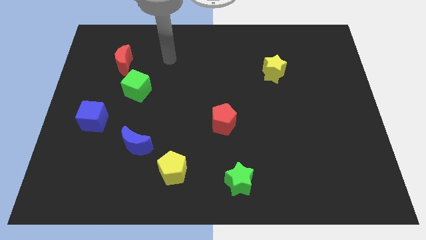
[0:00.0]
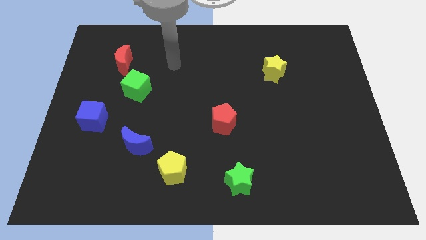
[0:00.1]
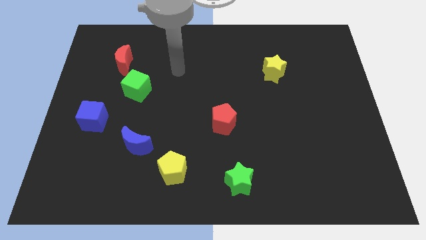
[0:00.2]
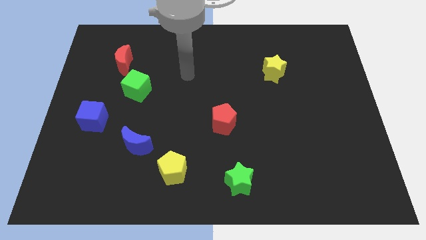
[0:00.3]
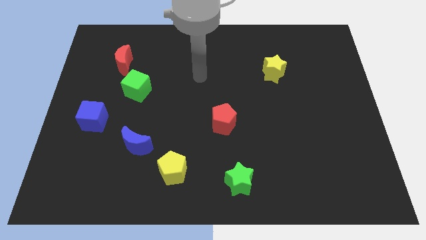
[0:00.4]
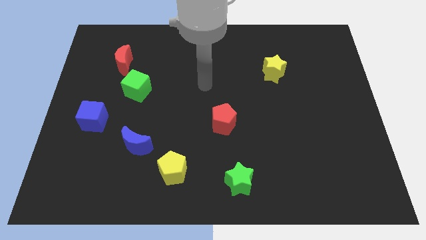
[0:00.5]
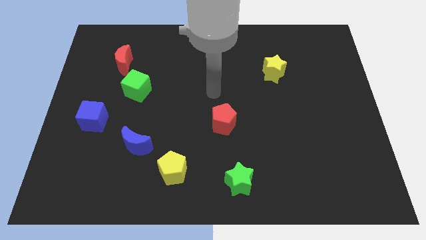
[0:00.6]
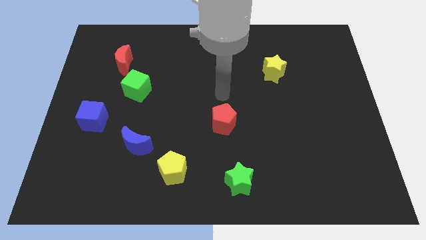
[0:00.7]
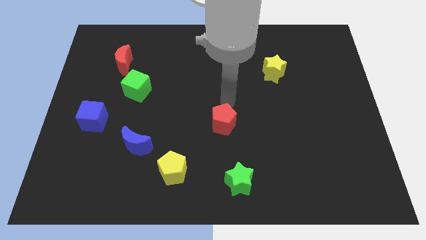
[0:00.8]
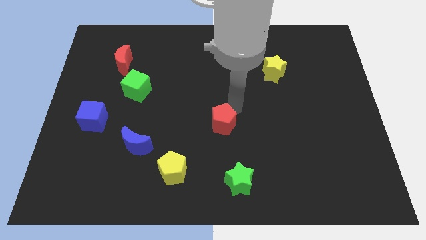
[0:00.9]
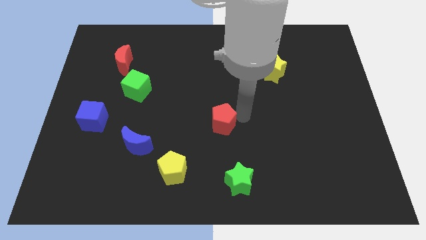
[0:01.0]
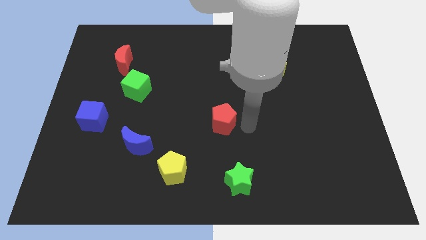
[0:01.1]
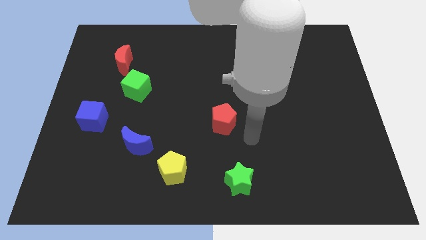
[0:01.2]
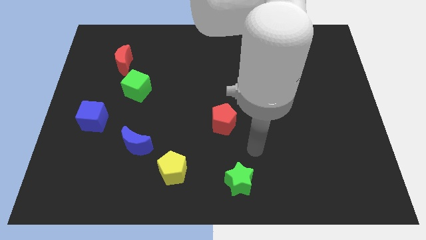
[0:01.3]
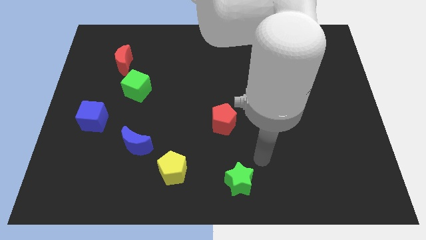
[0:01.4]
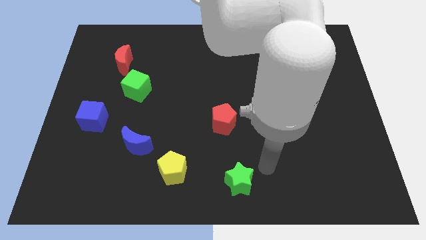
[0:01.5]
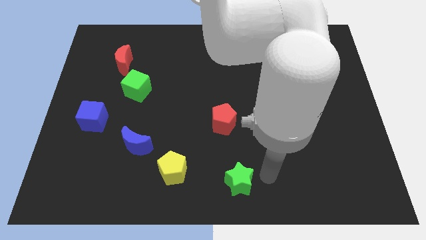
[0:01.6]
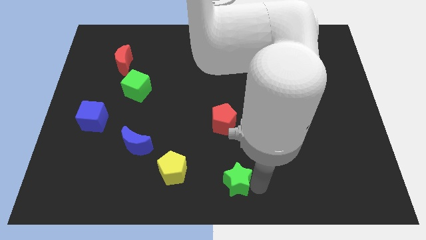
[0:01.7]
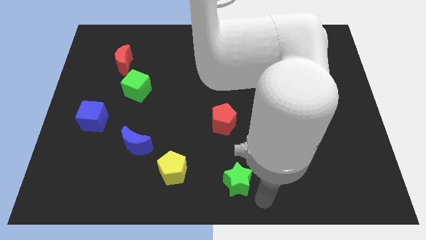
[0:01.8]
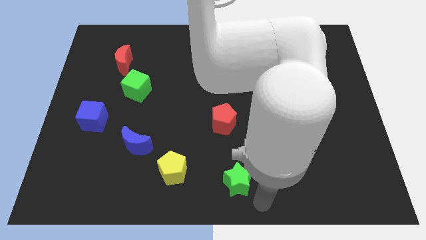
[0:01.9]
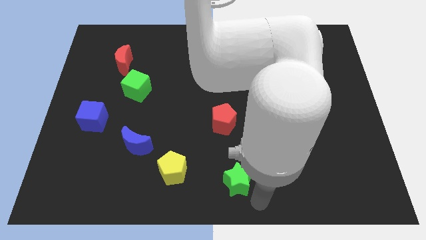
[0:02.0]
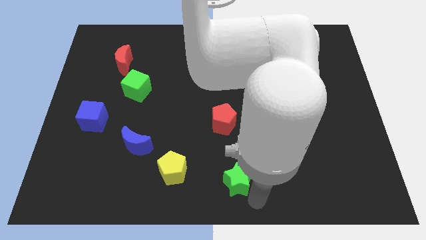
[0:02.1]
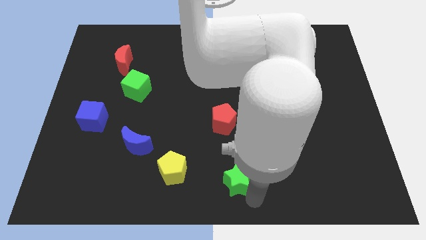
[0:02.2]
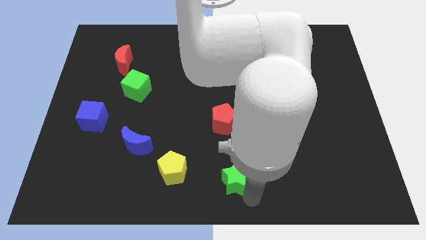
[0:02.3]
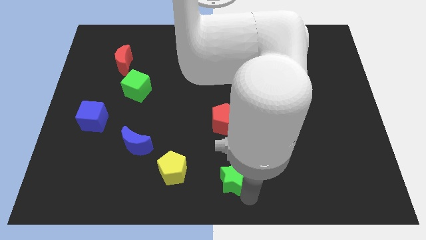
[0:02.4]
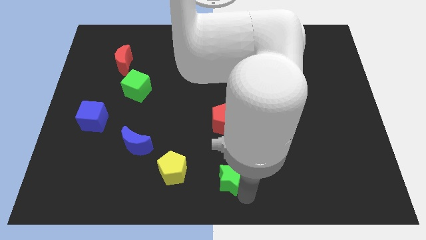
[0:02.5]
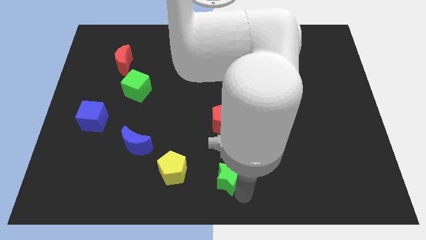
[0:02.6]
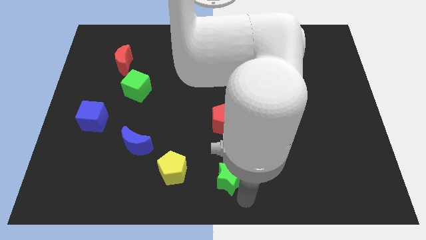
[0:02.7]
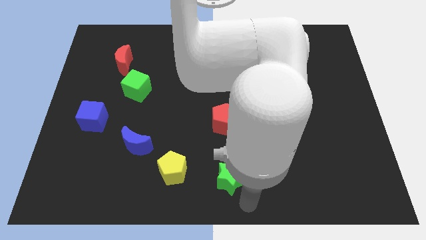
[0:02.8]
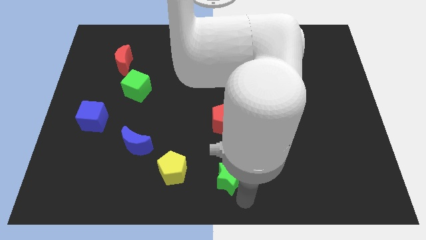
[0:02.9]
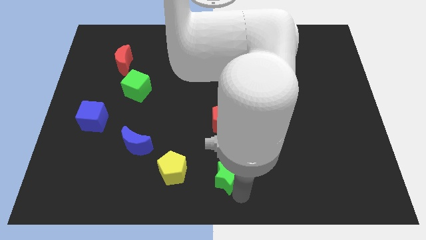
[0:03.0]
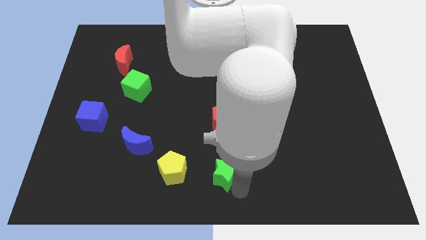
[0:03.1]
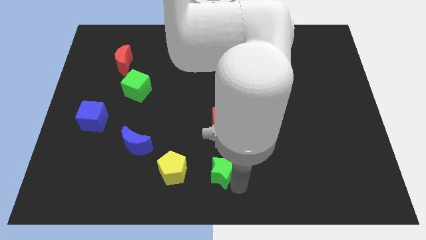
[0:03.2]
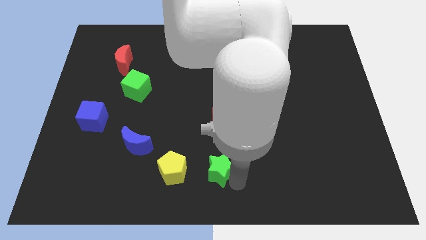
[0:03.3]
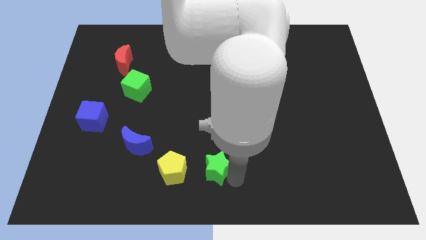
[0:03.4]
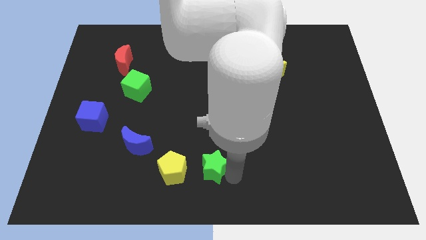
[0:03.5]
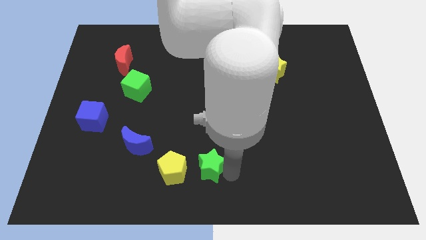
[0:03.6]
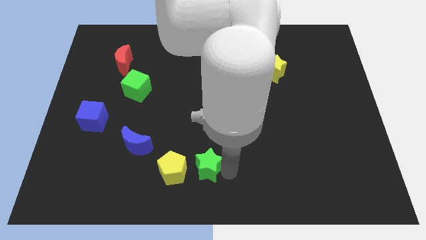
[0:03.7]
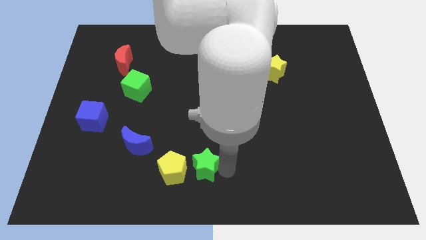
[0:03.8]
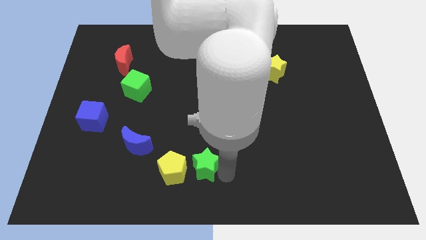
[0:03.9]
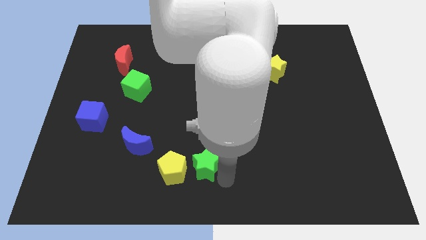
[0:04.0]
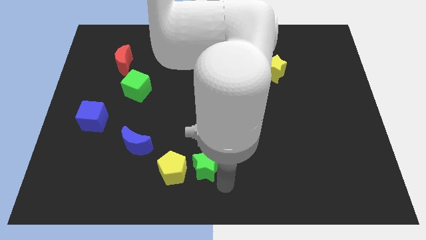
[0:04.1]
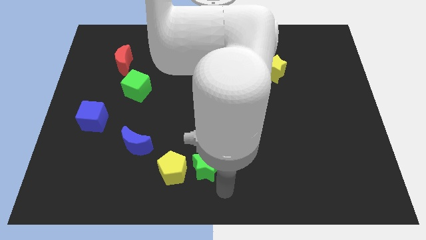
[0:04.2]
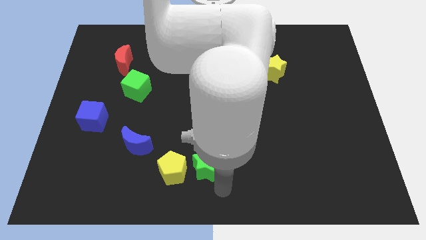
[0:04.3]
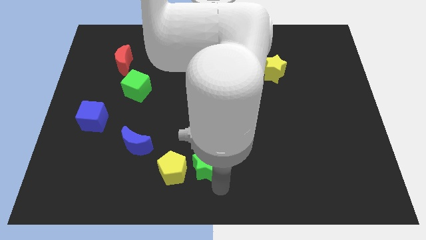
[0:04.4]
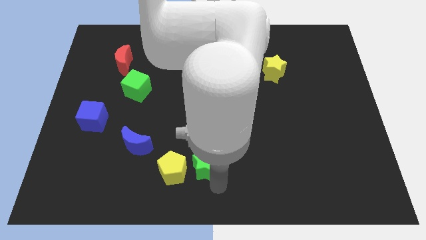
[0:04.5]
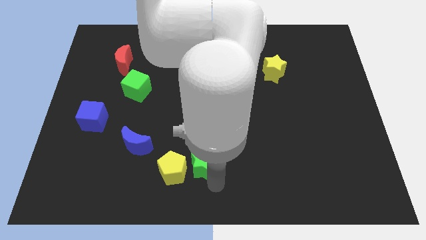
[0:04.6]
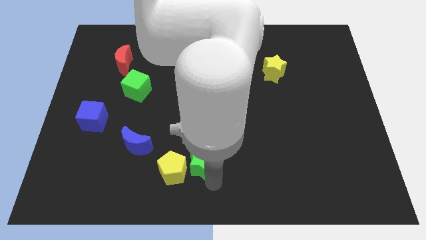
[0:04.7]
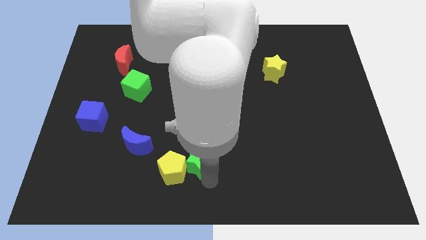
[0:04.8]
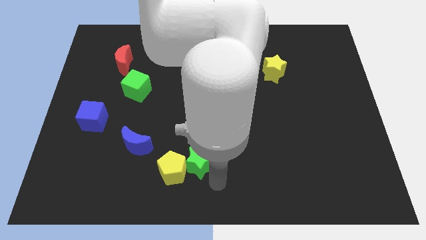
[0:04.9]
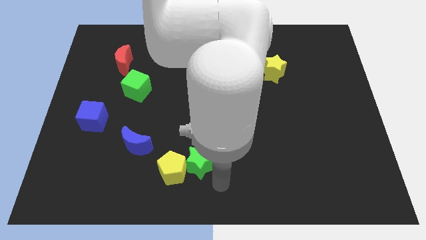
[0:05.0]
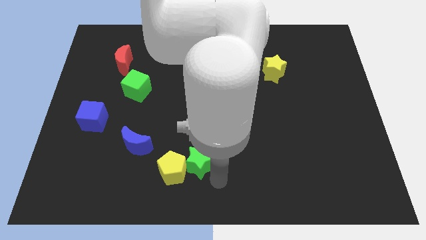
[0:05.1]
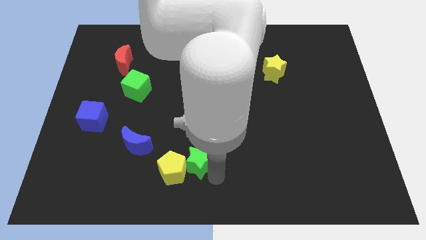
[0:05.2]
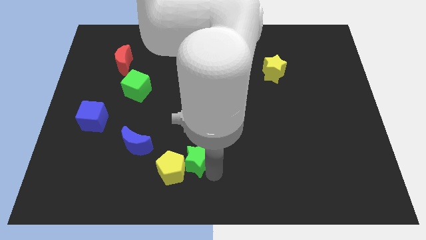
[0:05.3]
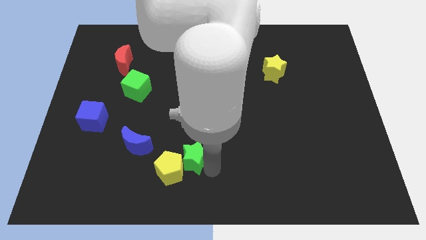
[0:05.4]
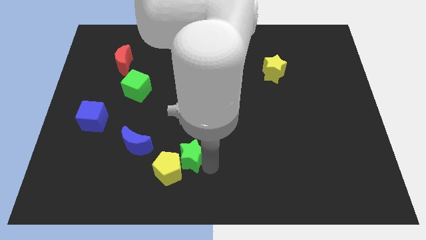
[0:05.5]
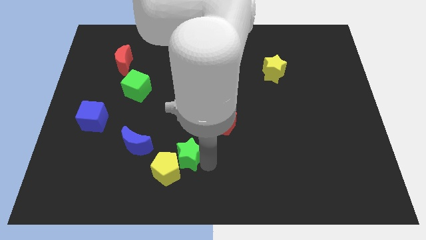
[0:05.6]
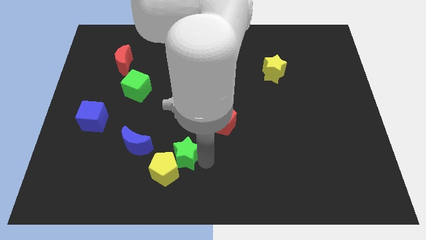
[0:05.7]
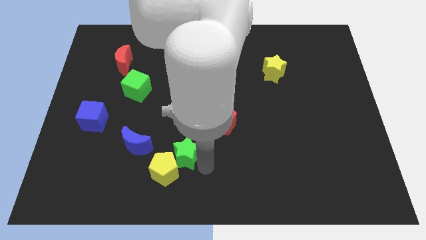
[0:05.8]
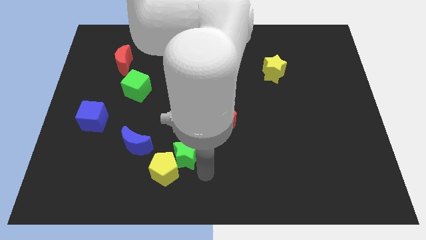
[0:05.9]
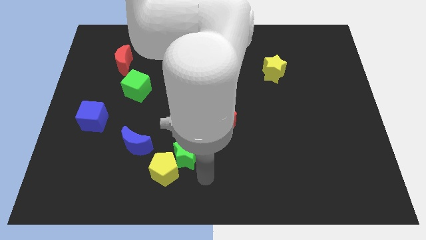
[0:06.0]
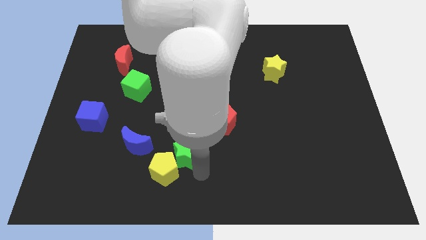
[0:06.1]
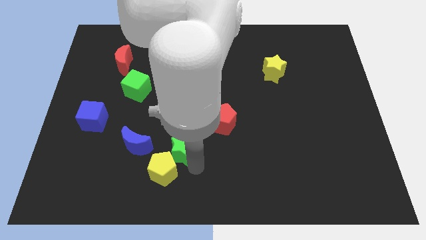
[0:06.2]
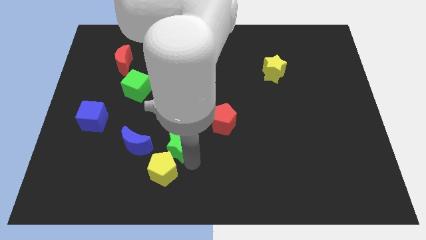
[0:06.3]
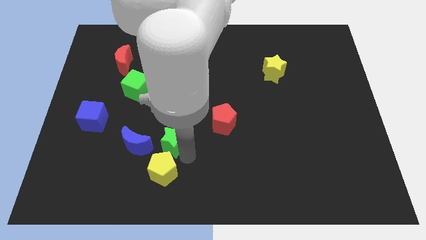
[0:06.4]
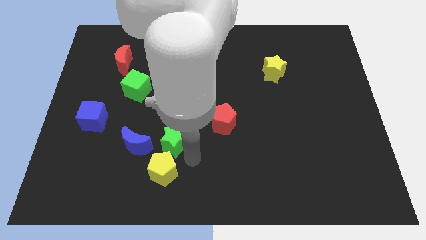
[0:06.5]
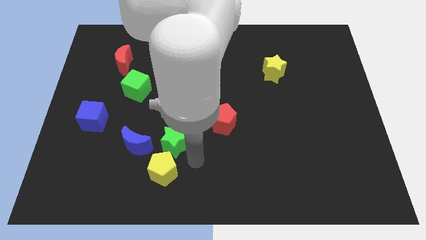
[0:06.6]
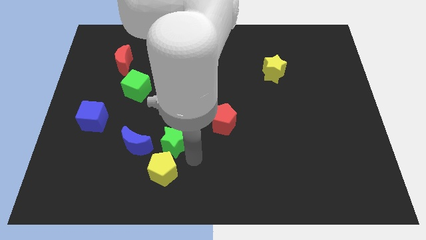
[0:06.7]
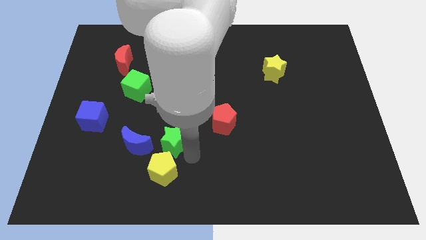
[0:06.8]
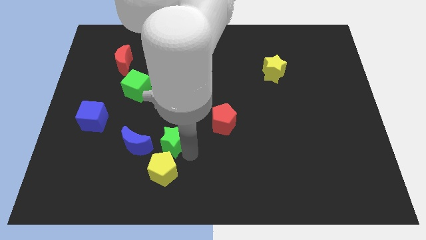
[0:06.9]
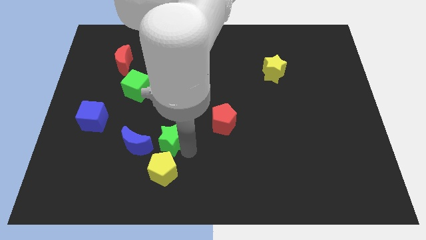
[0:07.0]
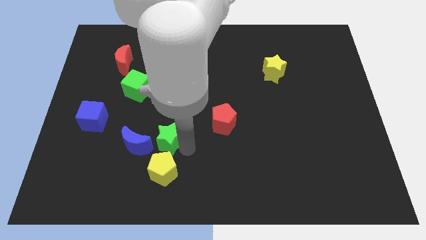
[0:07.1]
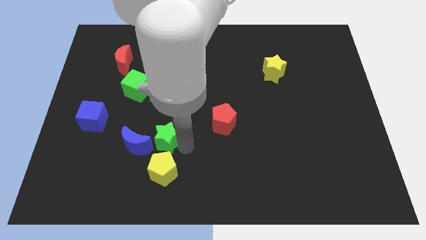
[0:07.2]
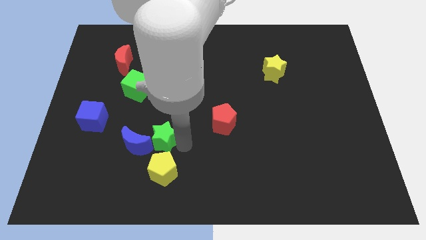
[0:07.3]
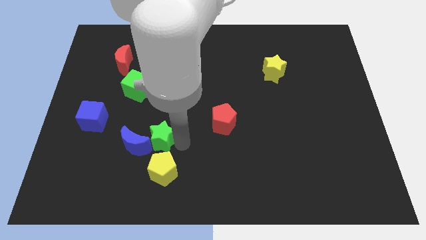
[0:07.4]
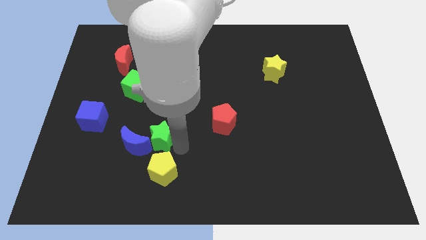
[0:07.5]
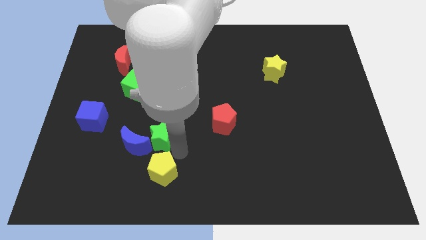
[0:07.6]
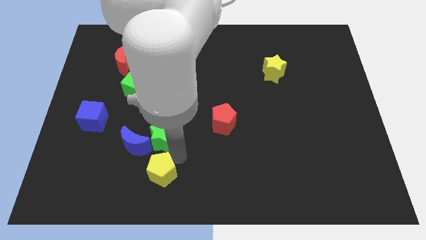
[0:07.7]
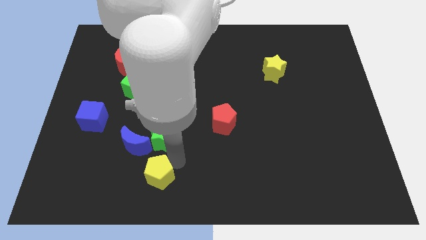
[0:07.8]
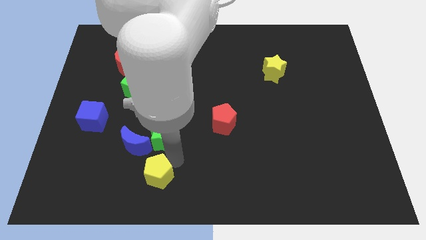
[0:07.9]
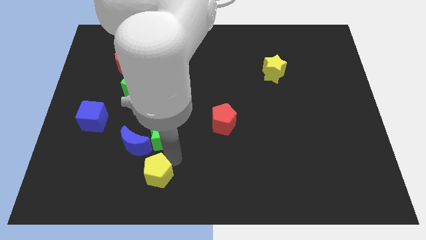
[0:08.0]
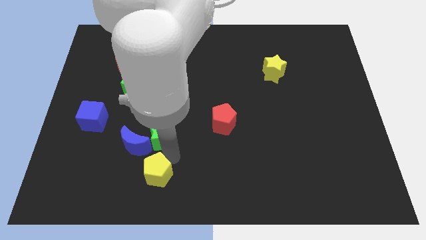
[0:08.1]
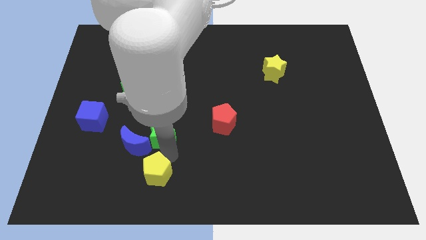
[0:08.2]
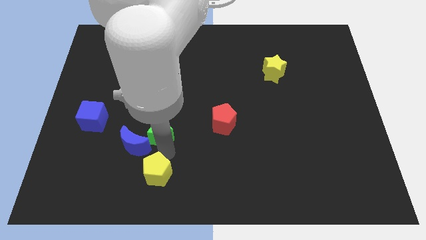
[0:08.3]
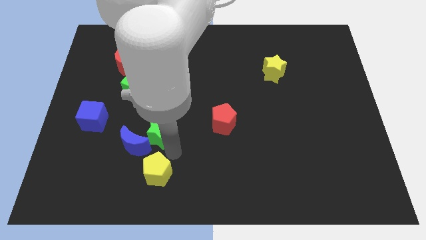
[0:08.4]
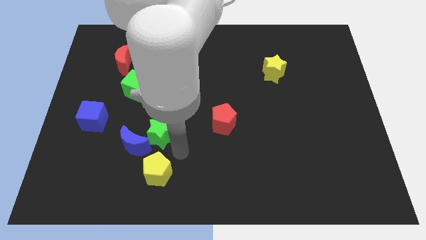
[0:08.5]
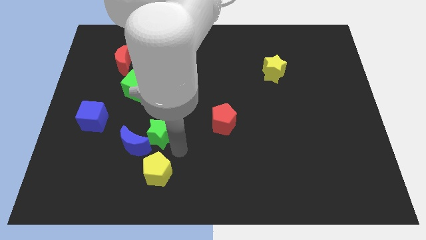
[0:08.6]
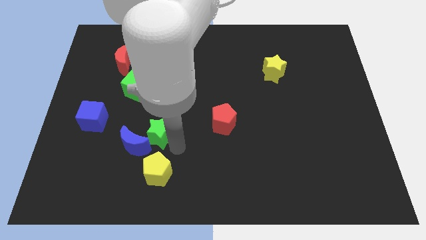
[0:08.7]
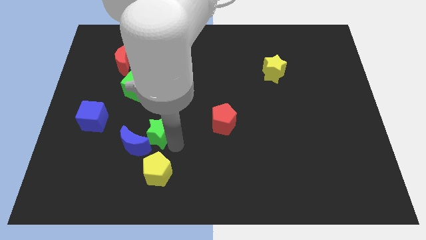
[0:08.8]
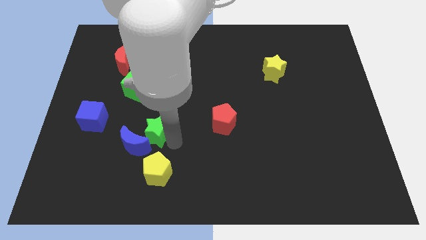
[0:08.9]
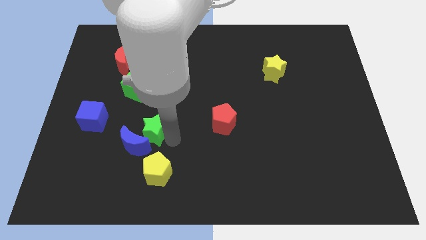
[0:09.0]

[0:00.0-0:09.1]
slide the green star just right of the blue cube
